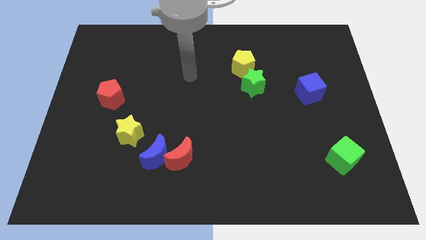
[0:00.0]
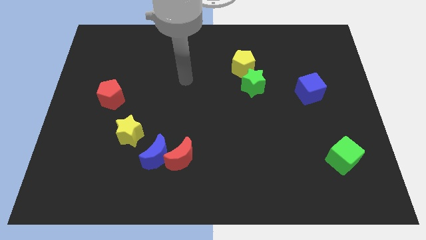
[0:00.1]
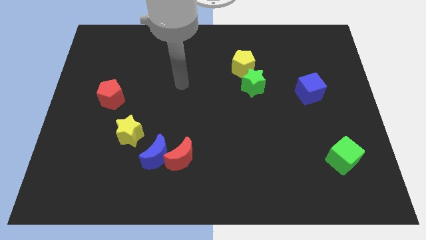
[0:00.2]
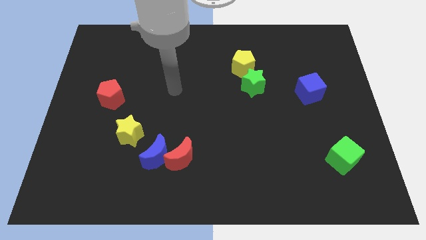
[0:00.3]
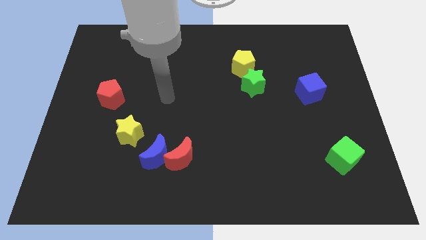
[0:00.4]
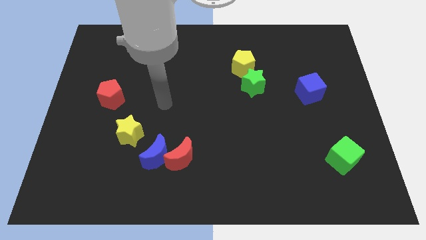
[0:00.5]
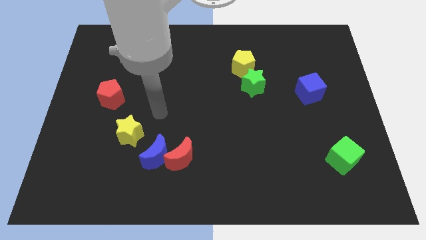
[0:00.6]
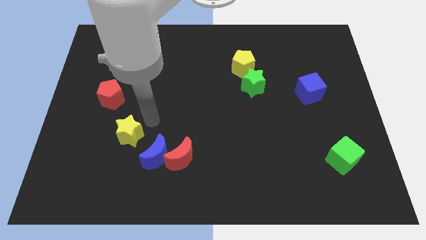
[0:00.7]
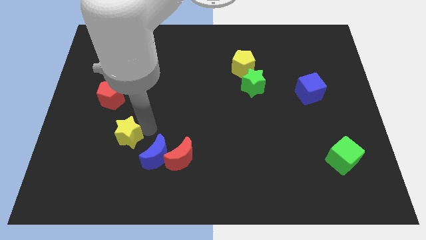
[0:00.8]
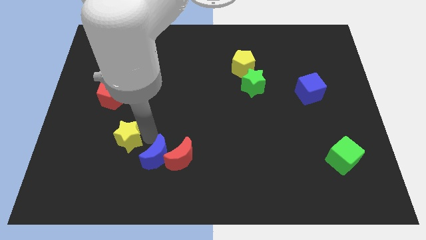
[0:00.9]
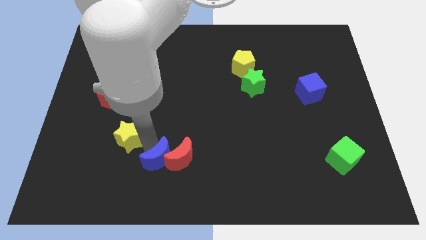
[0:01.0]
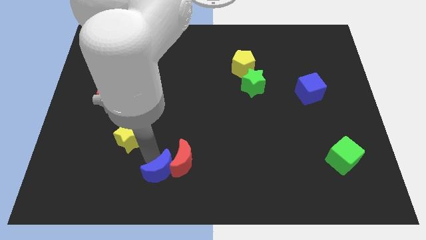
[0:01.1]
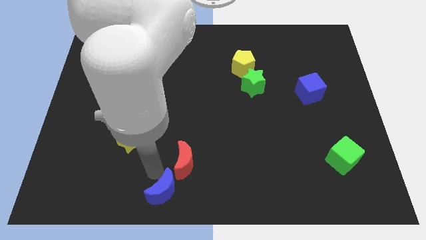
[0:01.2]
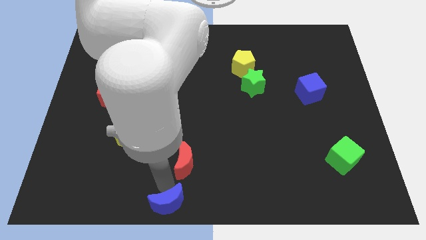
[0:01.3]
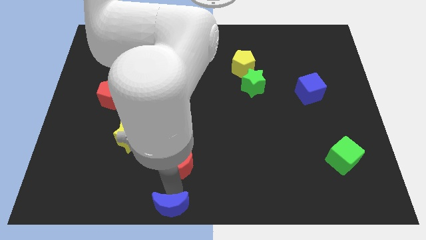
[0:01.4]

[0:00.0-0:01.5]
pull the red moon apart from the blue moon

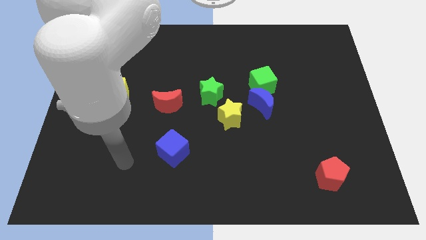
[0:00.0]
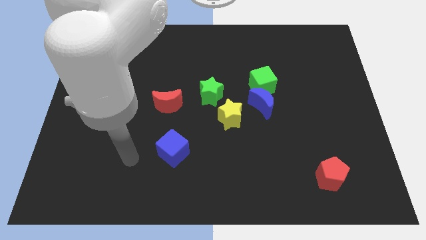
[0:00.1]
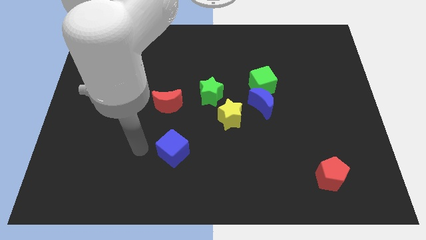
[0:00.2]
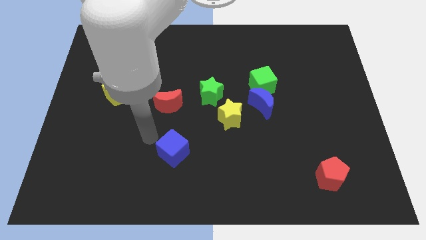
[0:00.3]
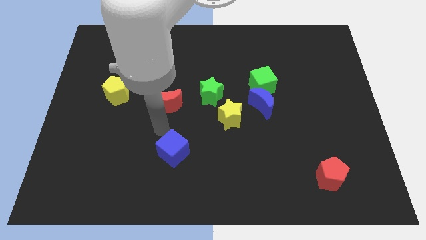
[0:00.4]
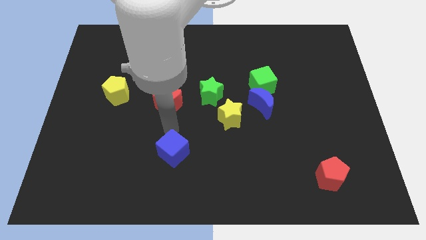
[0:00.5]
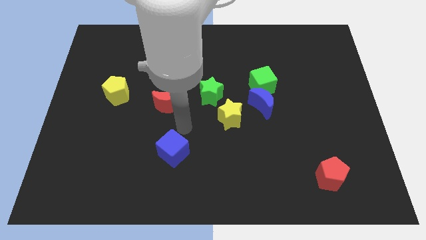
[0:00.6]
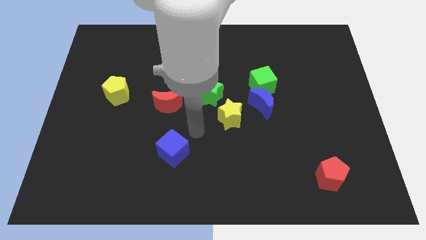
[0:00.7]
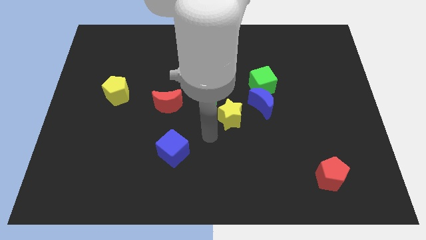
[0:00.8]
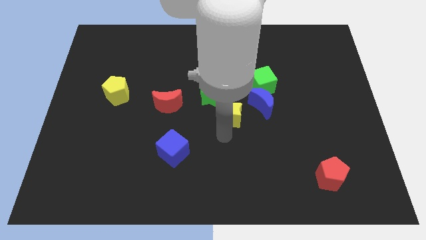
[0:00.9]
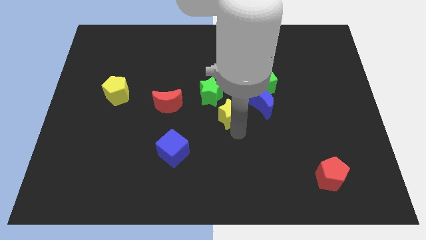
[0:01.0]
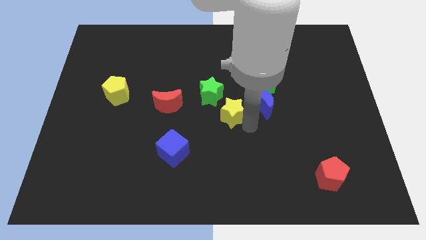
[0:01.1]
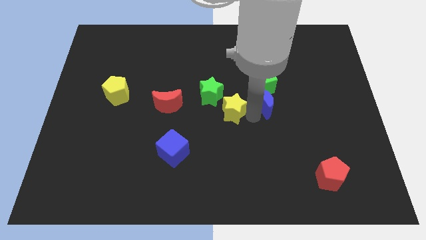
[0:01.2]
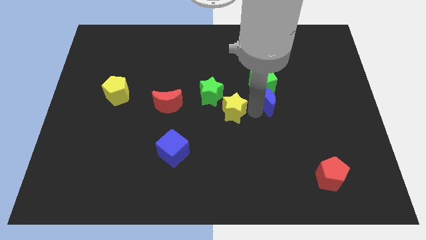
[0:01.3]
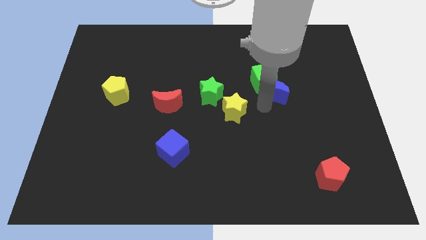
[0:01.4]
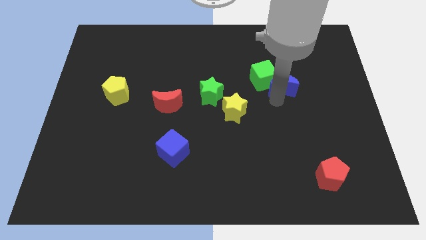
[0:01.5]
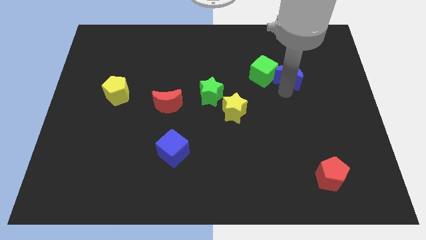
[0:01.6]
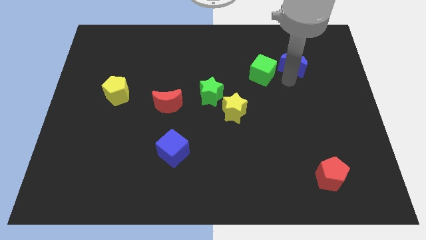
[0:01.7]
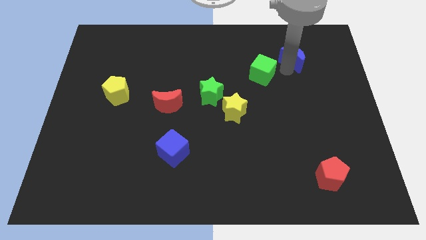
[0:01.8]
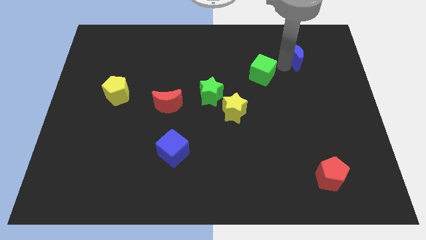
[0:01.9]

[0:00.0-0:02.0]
move the green cube away from the blue moon

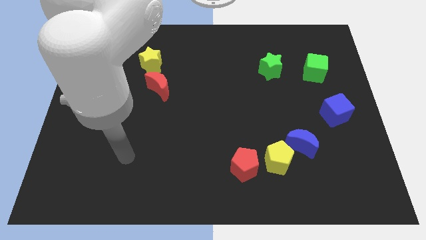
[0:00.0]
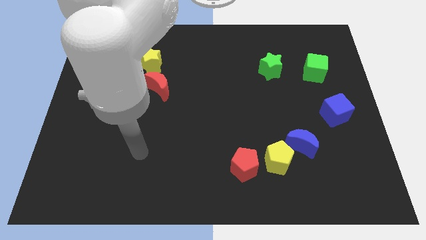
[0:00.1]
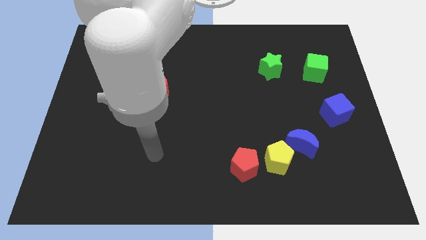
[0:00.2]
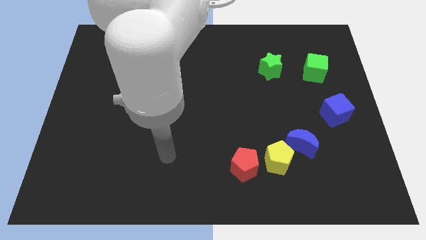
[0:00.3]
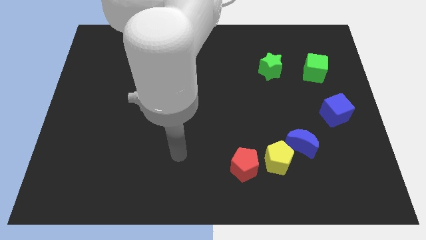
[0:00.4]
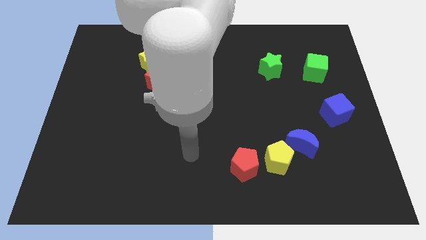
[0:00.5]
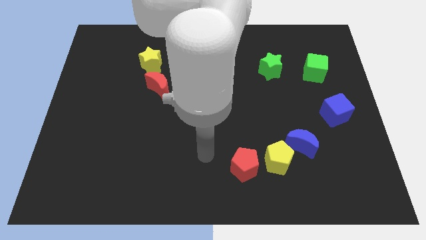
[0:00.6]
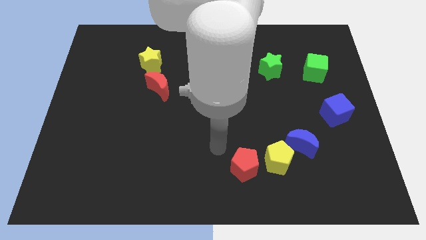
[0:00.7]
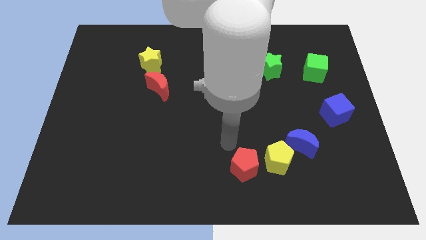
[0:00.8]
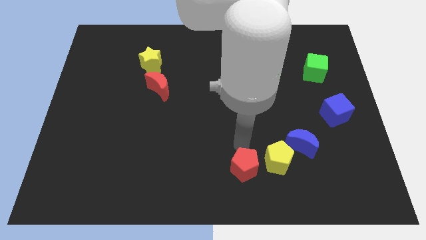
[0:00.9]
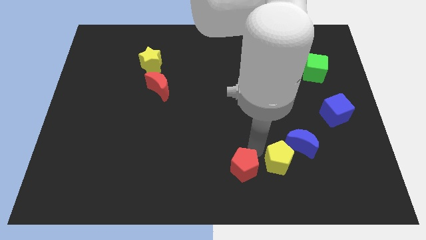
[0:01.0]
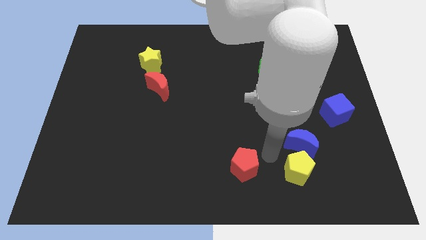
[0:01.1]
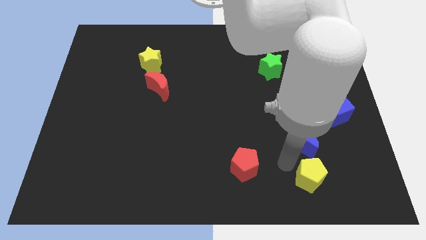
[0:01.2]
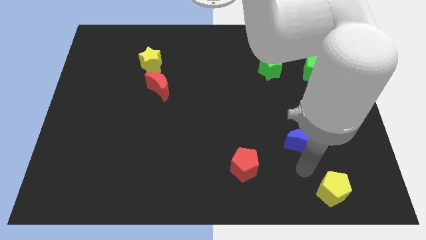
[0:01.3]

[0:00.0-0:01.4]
pull the blue moon apart from the yellow pentagon

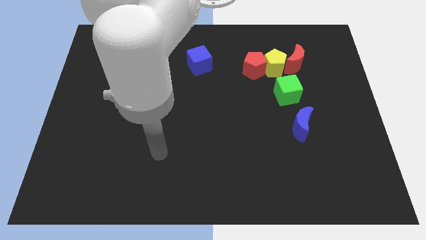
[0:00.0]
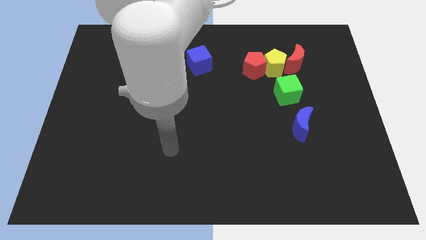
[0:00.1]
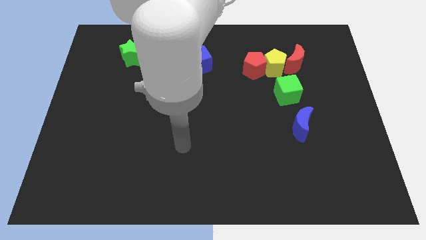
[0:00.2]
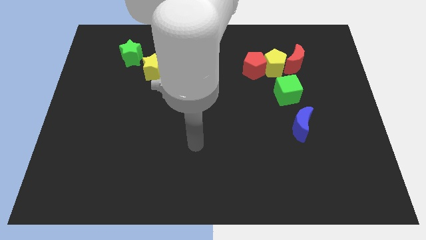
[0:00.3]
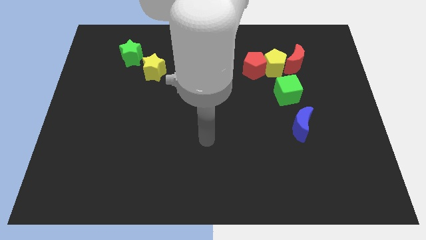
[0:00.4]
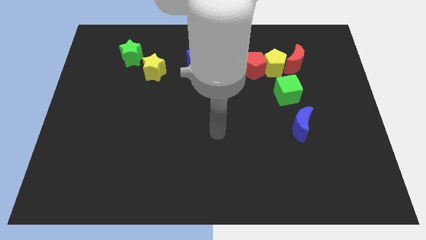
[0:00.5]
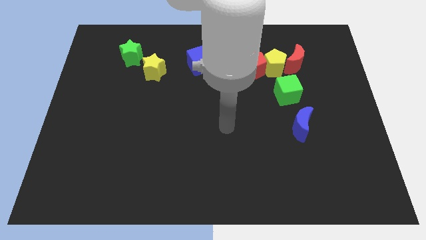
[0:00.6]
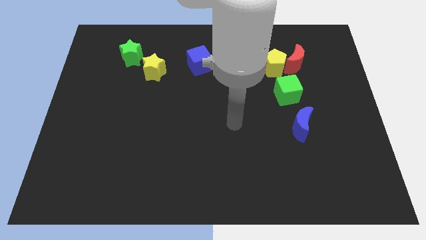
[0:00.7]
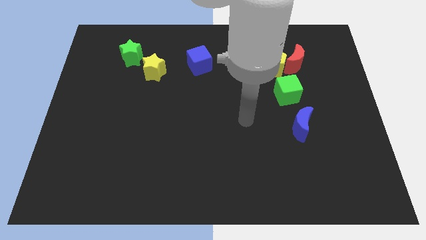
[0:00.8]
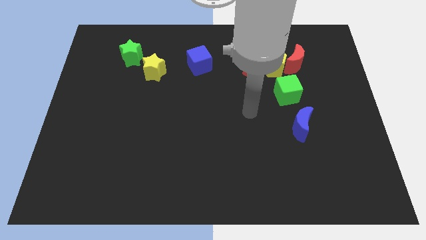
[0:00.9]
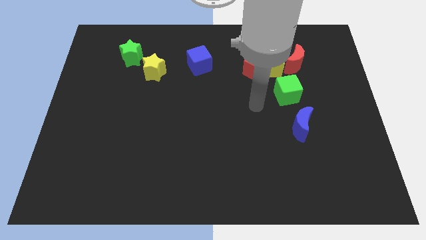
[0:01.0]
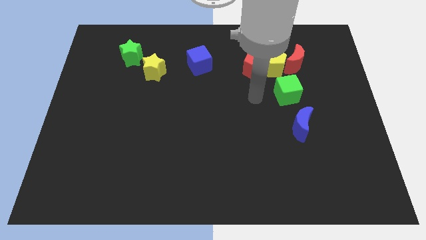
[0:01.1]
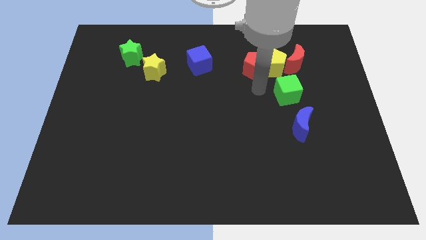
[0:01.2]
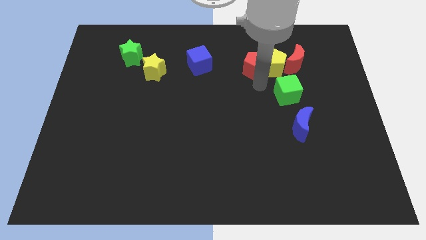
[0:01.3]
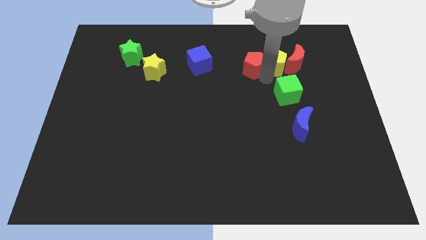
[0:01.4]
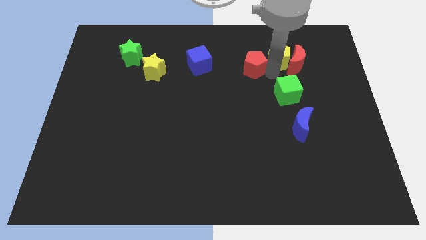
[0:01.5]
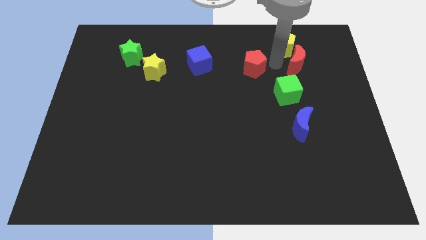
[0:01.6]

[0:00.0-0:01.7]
separate the red pentagon from the yellow pentagon

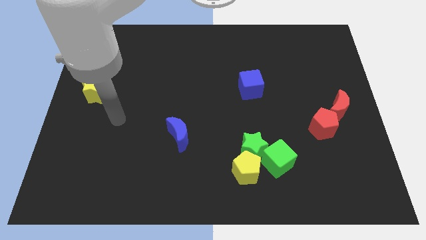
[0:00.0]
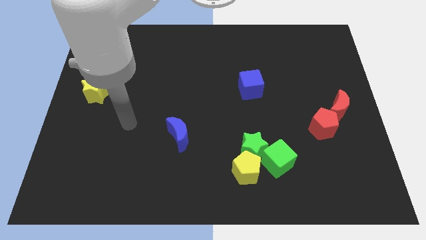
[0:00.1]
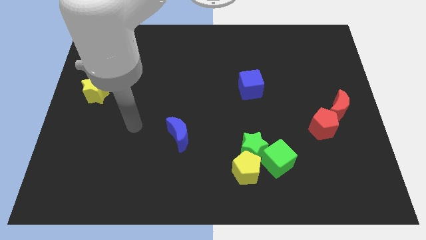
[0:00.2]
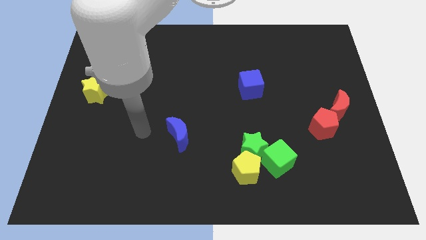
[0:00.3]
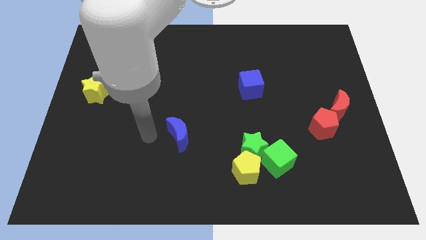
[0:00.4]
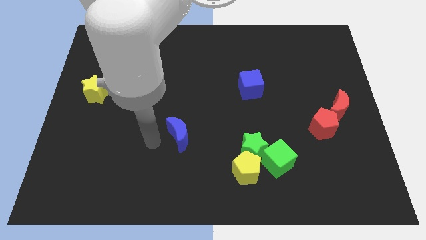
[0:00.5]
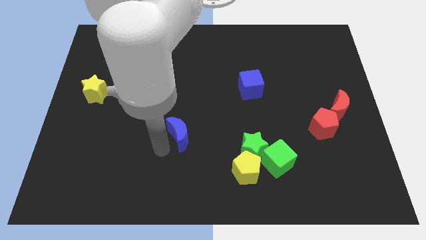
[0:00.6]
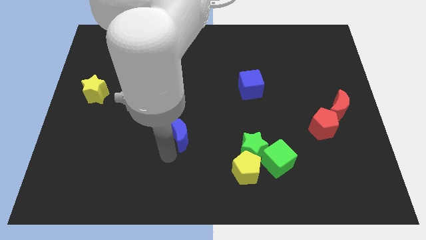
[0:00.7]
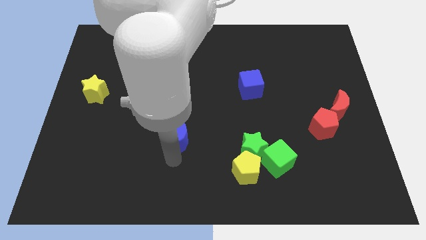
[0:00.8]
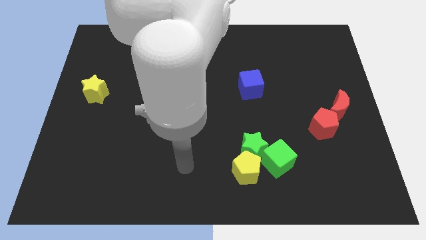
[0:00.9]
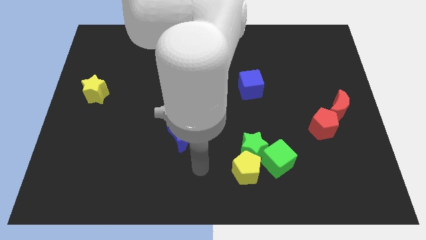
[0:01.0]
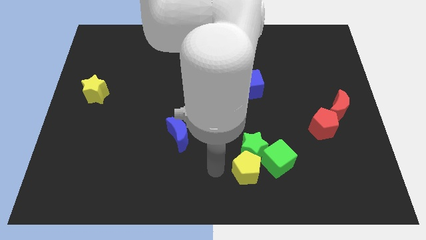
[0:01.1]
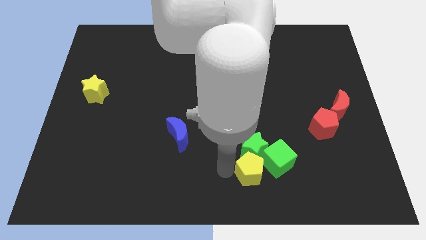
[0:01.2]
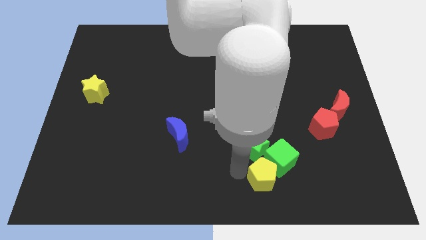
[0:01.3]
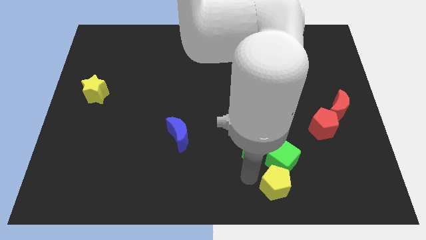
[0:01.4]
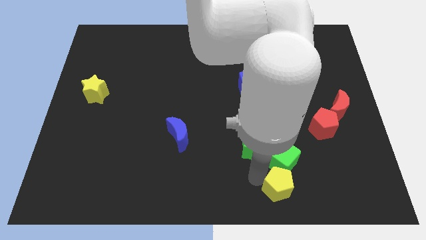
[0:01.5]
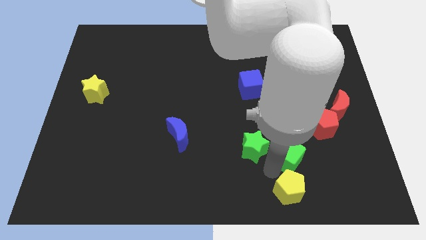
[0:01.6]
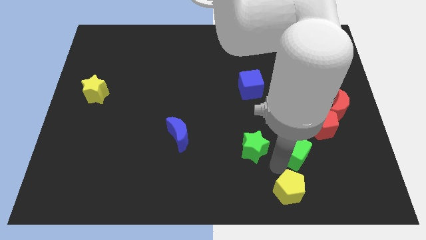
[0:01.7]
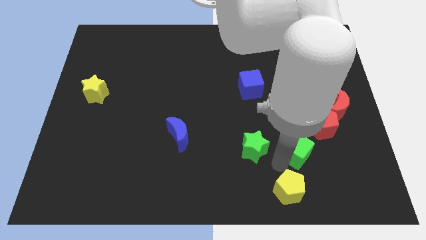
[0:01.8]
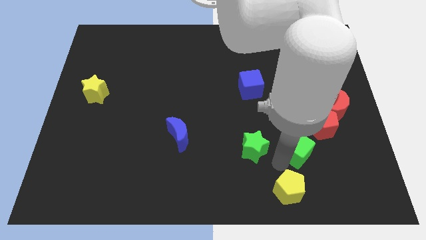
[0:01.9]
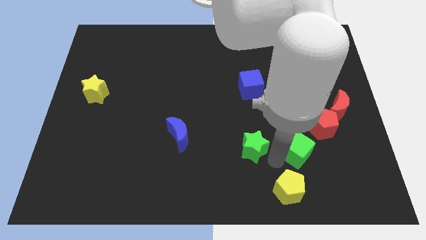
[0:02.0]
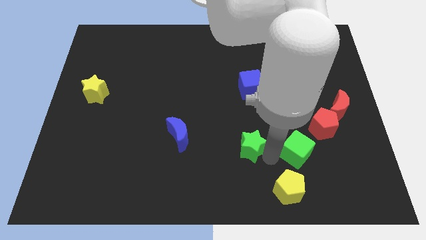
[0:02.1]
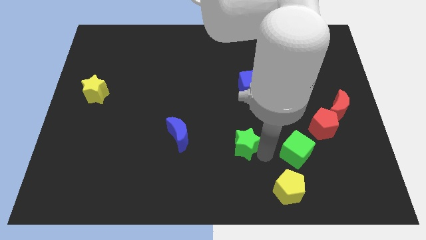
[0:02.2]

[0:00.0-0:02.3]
move the green star away from the yellow pentagon and green cube

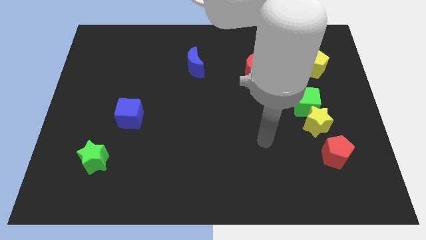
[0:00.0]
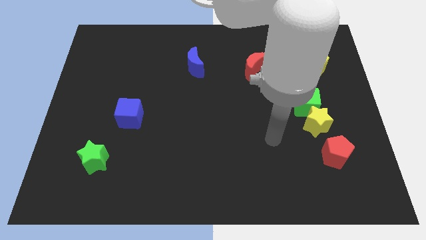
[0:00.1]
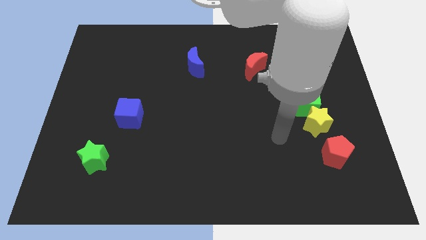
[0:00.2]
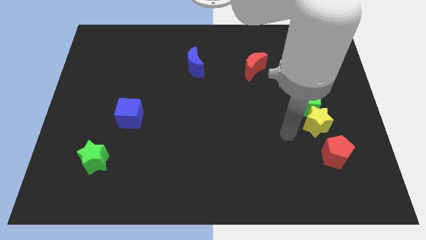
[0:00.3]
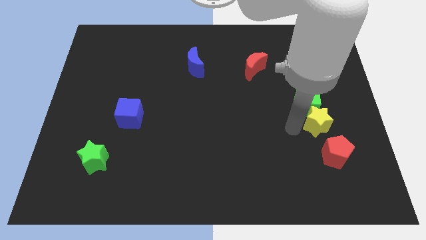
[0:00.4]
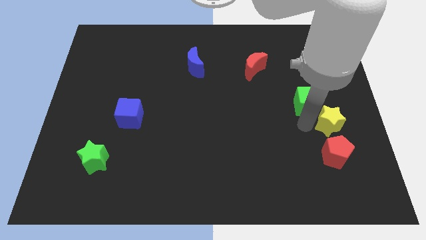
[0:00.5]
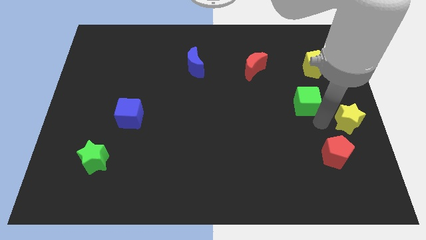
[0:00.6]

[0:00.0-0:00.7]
move the green cube away from the yellow star
